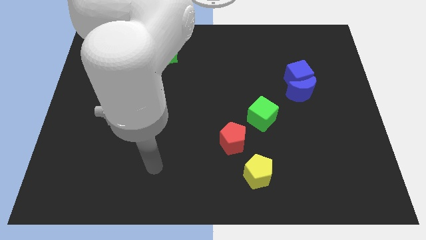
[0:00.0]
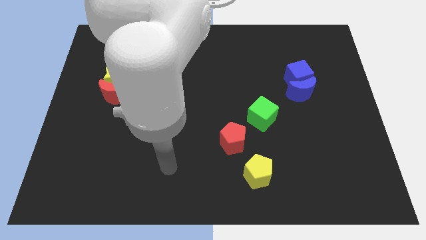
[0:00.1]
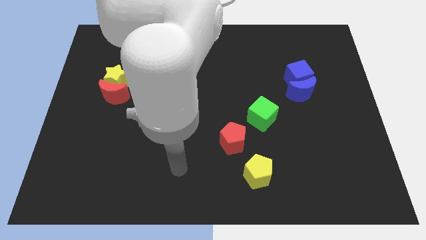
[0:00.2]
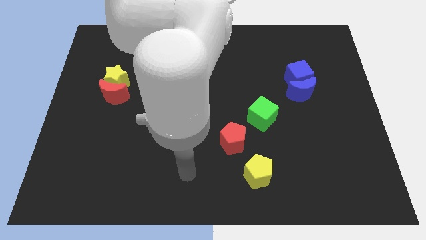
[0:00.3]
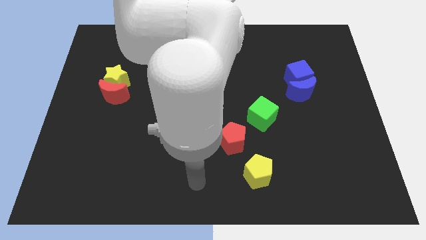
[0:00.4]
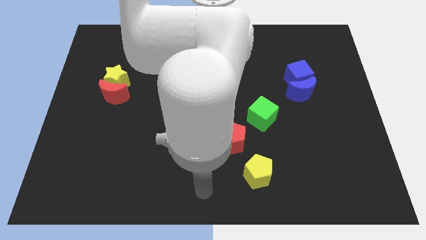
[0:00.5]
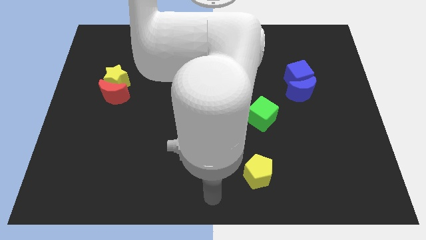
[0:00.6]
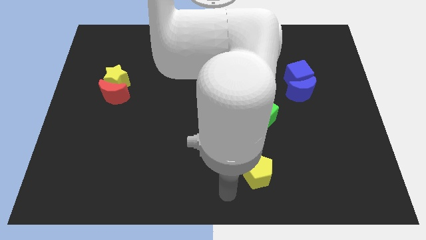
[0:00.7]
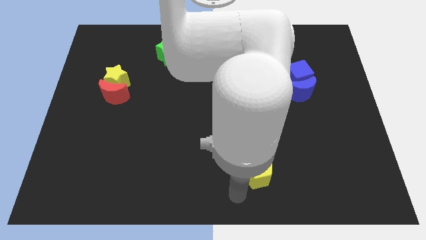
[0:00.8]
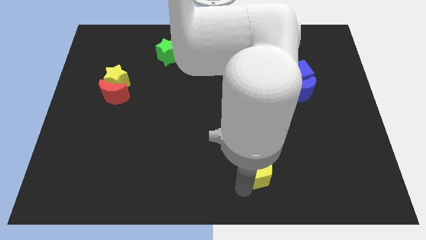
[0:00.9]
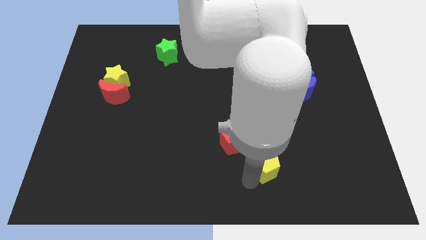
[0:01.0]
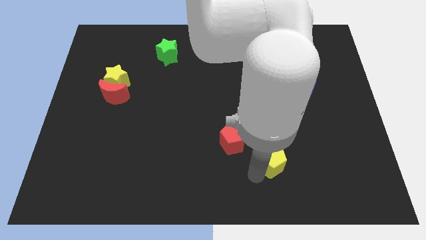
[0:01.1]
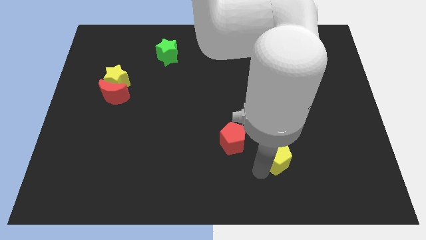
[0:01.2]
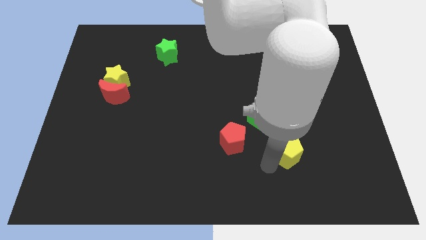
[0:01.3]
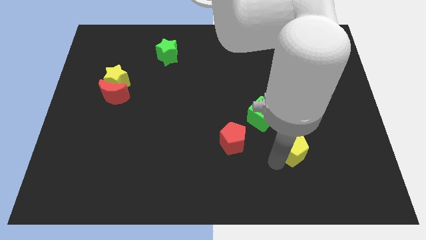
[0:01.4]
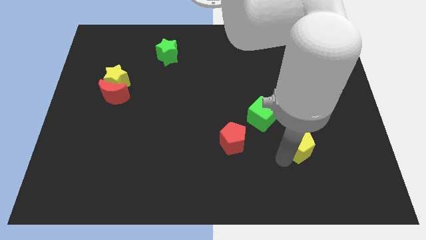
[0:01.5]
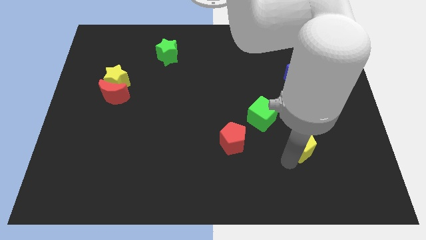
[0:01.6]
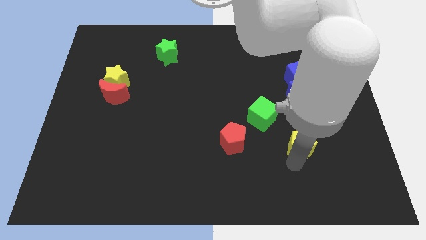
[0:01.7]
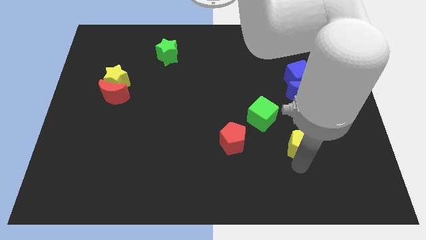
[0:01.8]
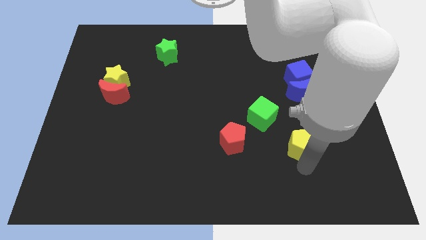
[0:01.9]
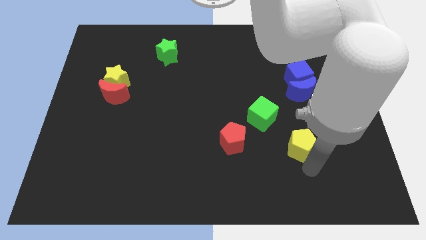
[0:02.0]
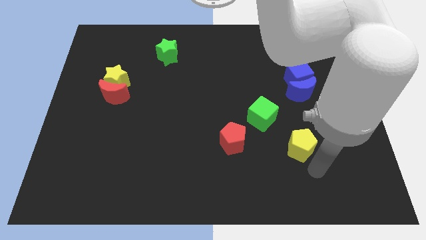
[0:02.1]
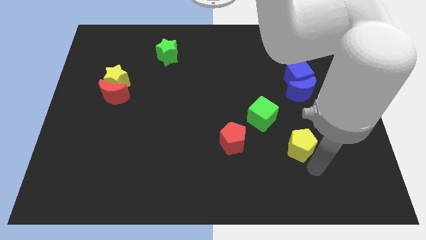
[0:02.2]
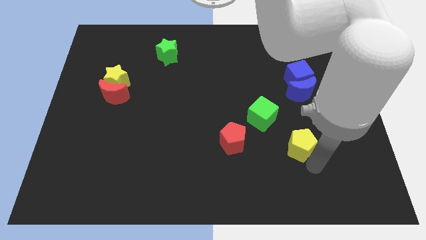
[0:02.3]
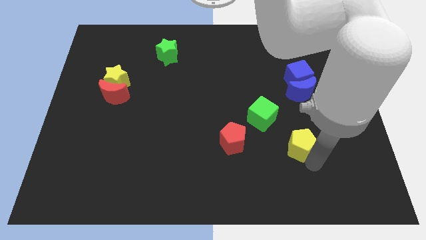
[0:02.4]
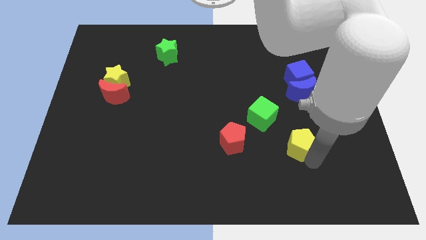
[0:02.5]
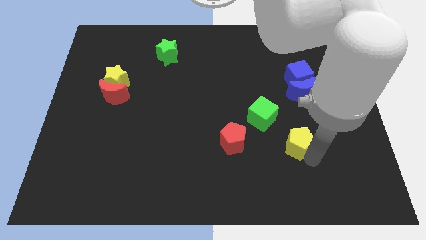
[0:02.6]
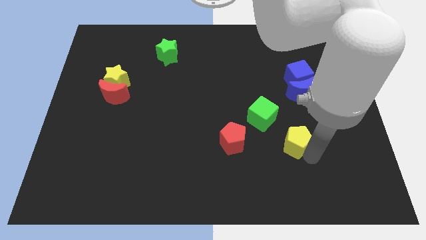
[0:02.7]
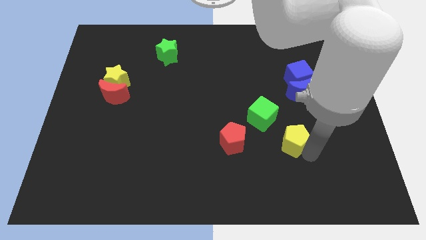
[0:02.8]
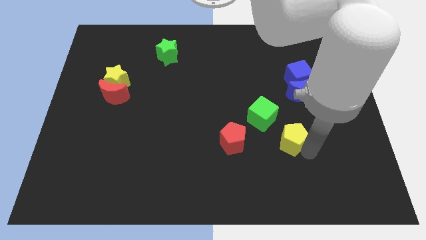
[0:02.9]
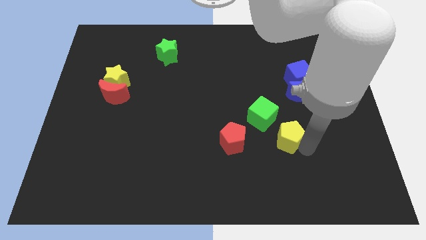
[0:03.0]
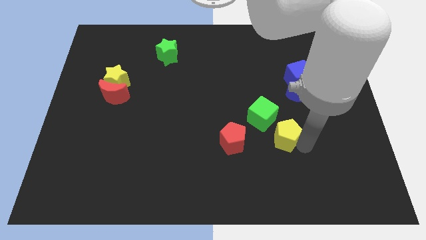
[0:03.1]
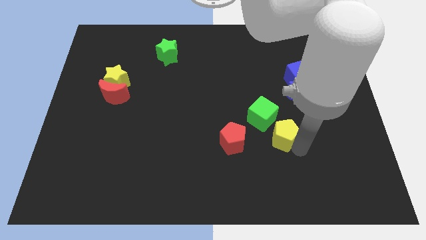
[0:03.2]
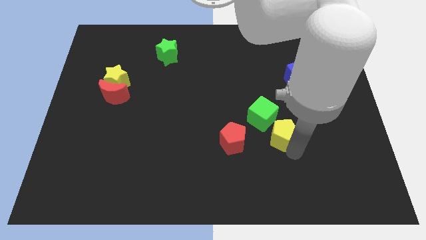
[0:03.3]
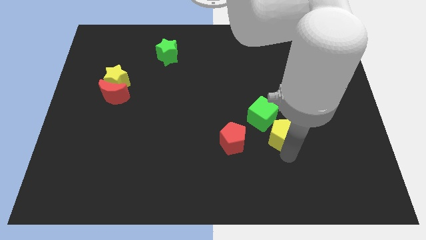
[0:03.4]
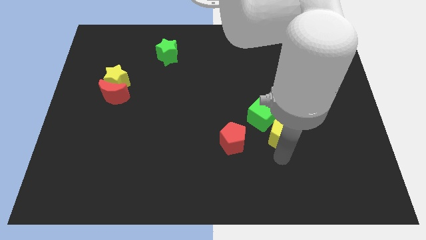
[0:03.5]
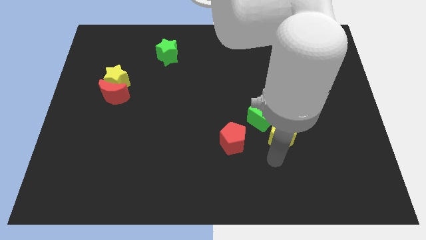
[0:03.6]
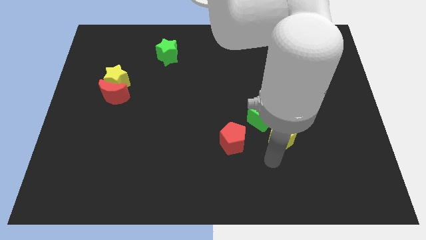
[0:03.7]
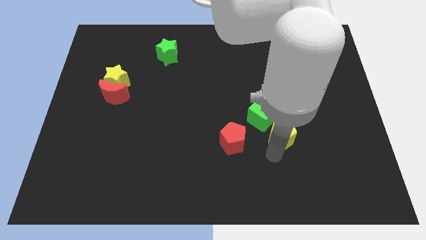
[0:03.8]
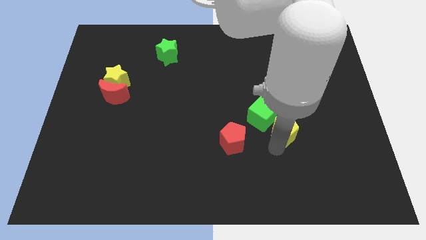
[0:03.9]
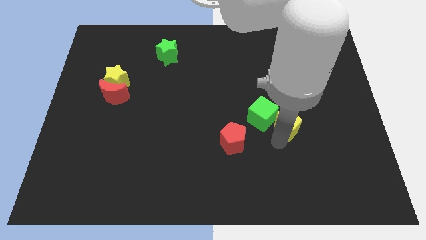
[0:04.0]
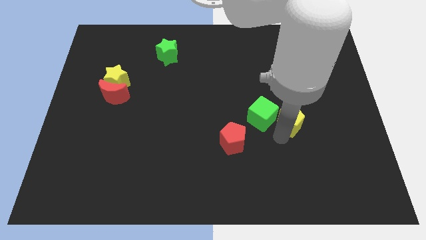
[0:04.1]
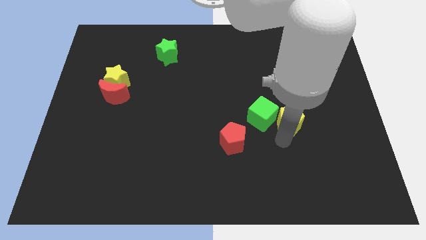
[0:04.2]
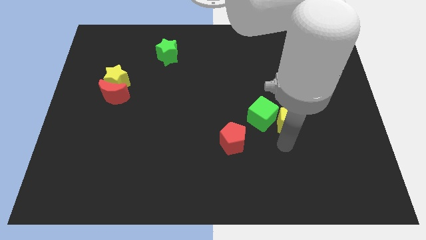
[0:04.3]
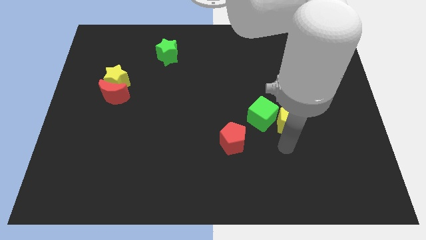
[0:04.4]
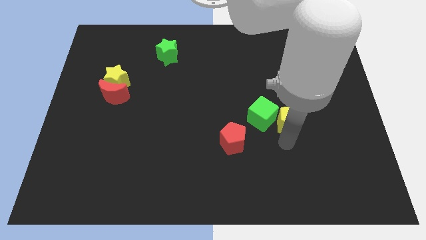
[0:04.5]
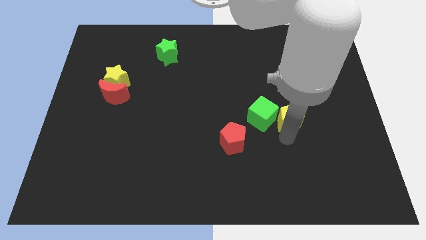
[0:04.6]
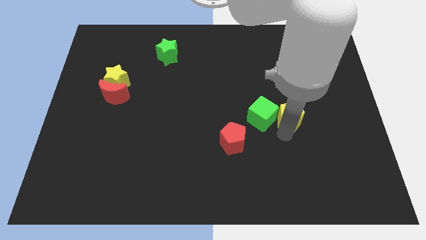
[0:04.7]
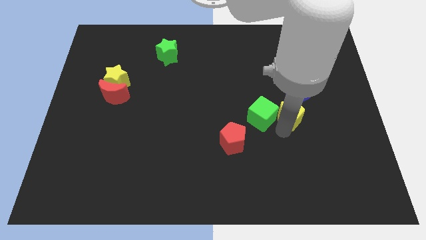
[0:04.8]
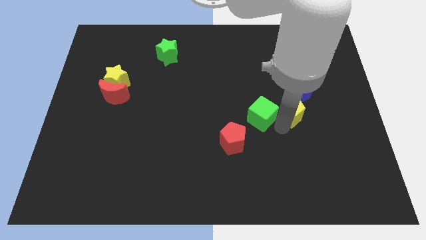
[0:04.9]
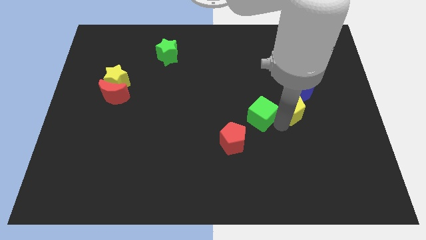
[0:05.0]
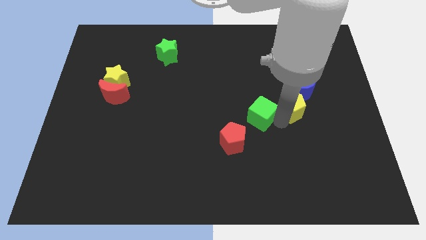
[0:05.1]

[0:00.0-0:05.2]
push the yellow pentagon close to the blue moon

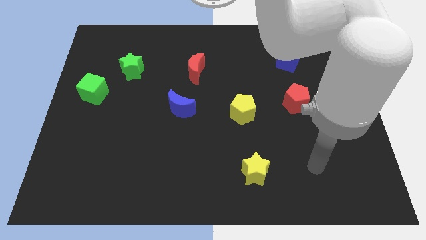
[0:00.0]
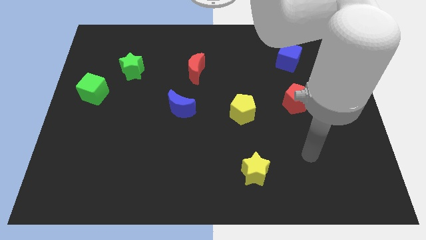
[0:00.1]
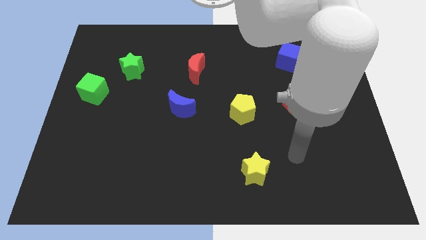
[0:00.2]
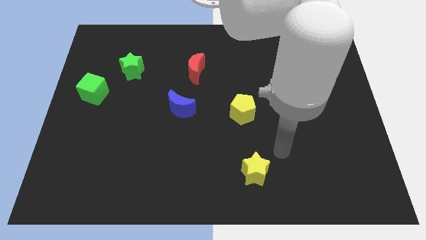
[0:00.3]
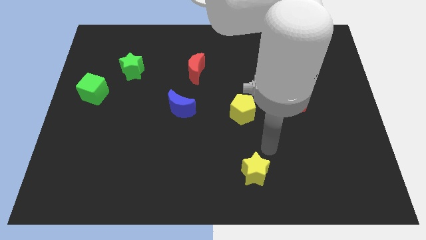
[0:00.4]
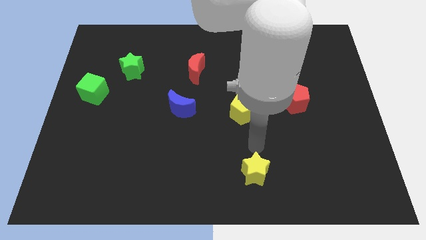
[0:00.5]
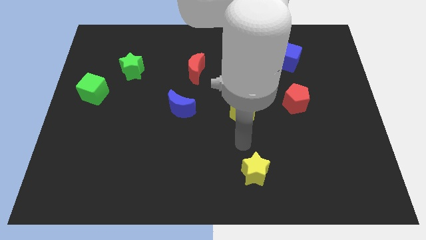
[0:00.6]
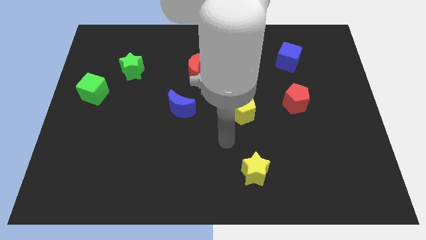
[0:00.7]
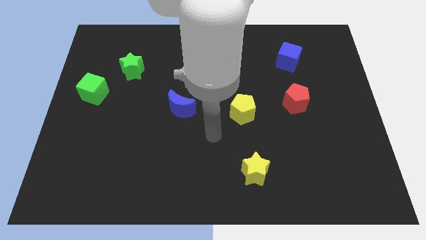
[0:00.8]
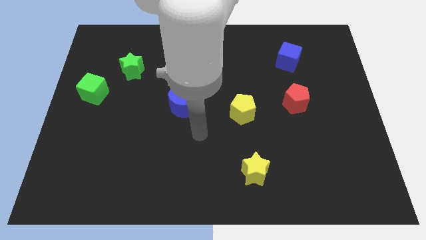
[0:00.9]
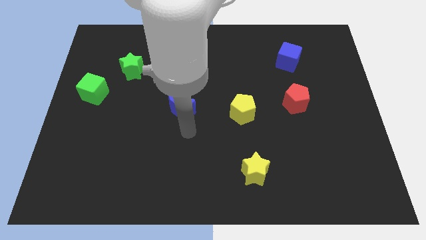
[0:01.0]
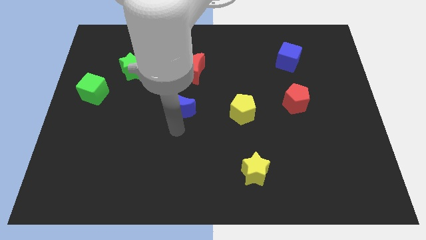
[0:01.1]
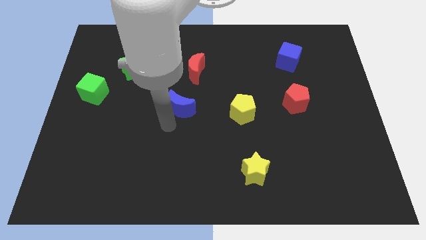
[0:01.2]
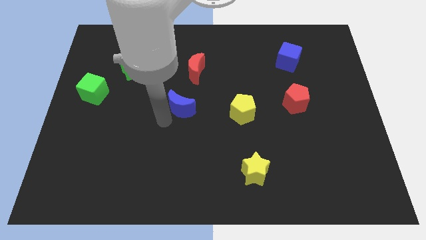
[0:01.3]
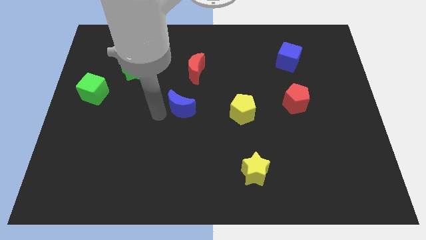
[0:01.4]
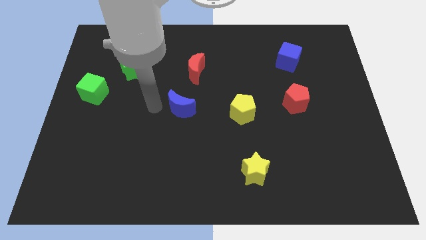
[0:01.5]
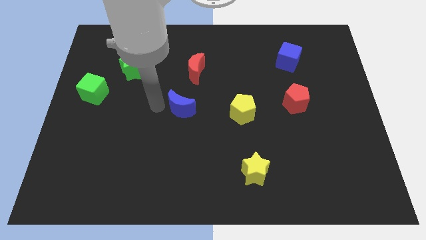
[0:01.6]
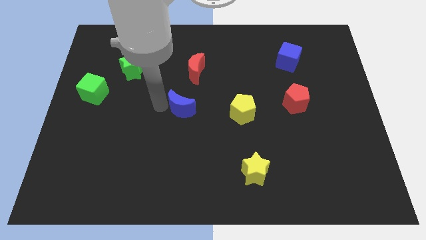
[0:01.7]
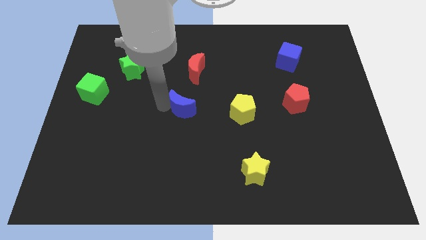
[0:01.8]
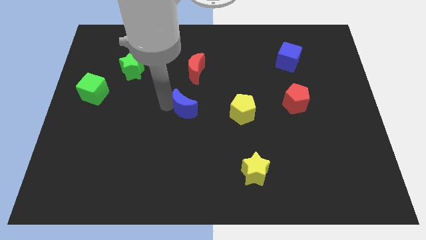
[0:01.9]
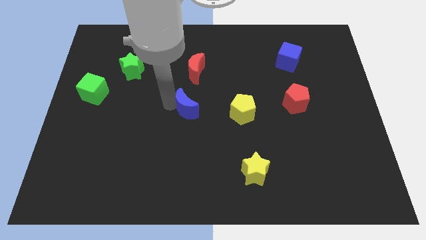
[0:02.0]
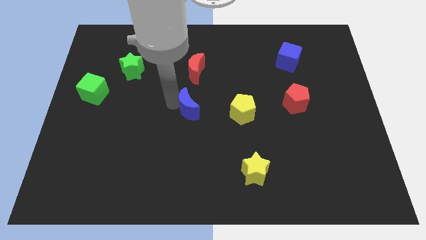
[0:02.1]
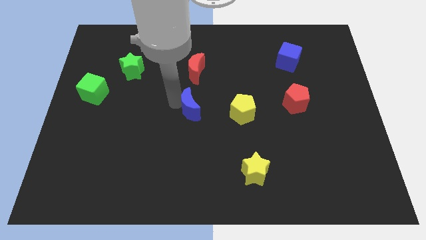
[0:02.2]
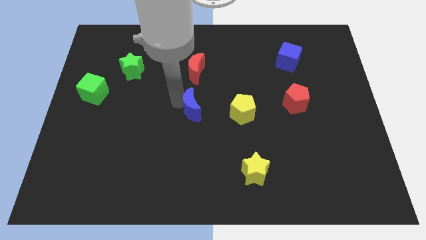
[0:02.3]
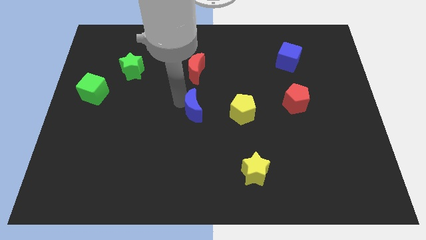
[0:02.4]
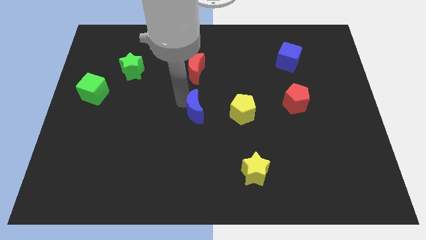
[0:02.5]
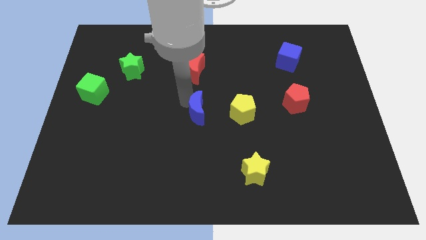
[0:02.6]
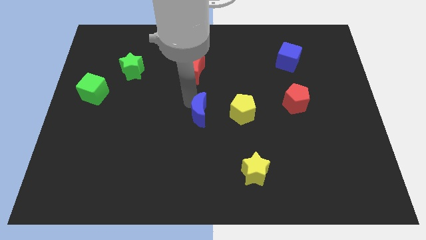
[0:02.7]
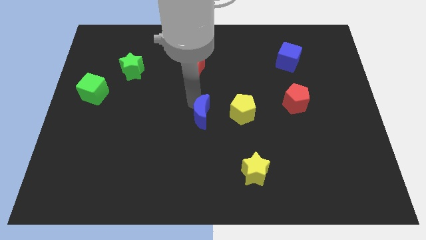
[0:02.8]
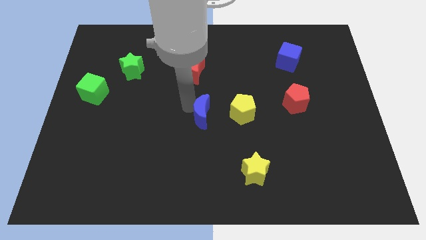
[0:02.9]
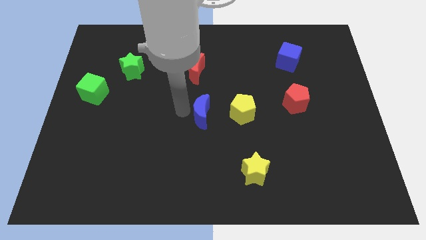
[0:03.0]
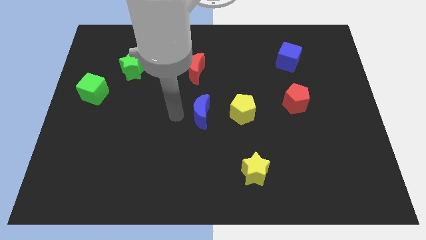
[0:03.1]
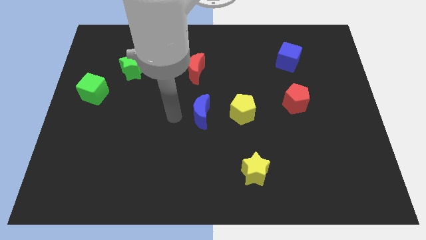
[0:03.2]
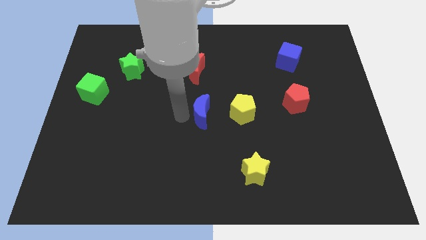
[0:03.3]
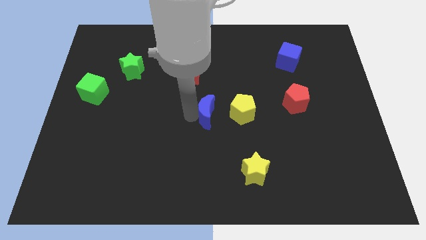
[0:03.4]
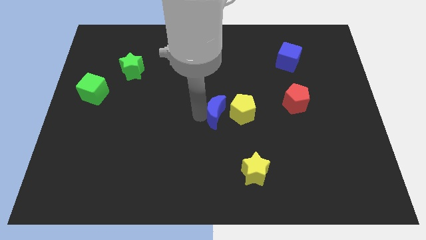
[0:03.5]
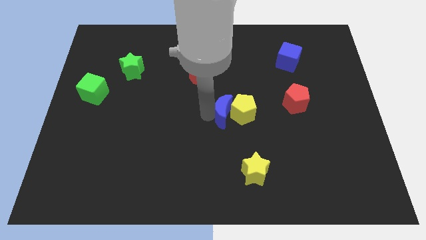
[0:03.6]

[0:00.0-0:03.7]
put the blue moon next to the yellow pentagon
